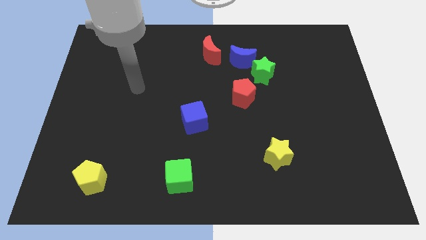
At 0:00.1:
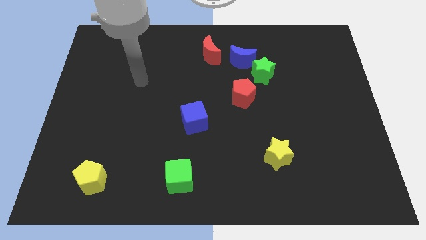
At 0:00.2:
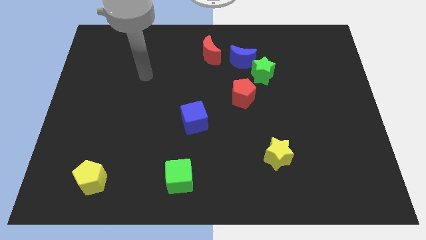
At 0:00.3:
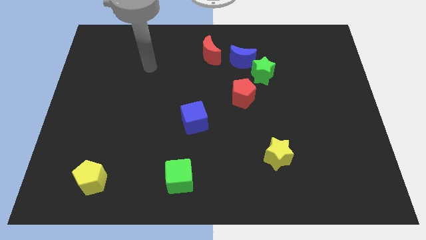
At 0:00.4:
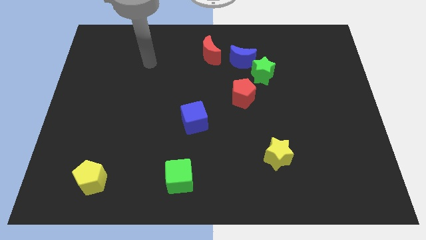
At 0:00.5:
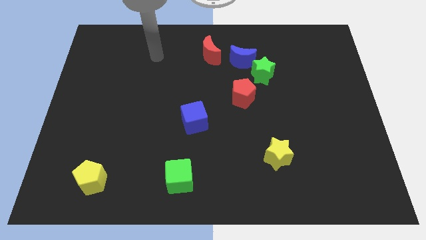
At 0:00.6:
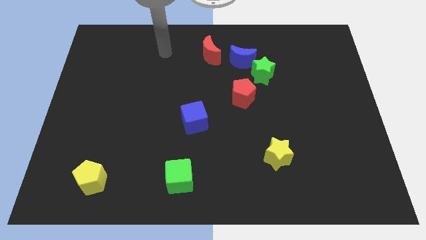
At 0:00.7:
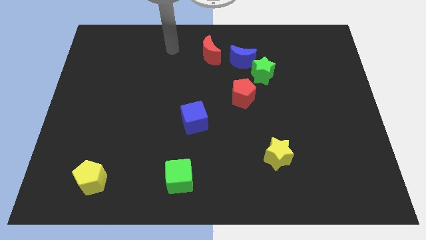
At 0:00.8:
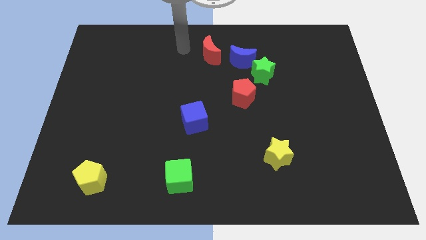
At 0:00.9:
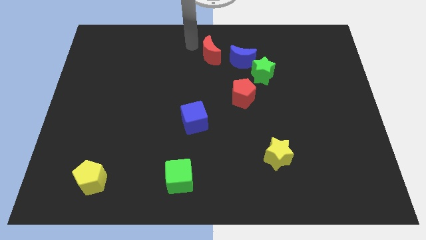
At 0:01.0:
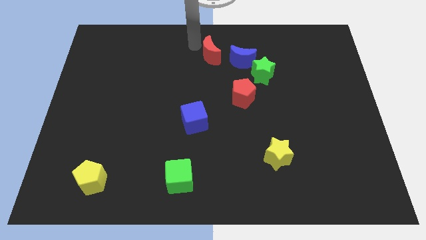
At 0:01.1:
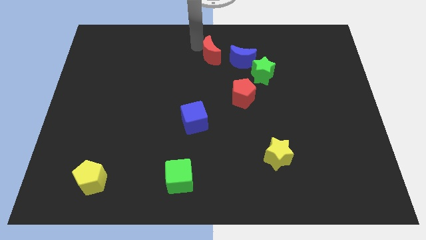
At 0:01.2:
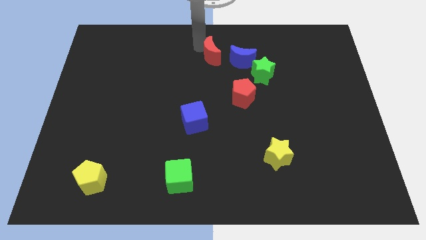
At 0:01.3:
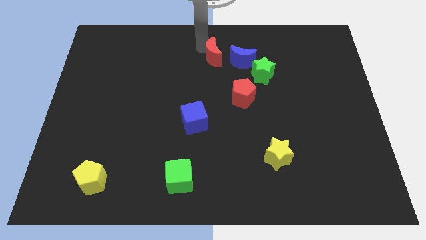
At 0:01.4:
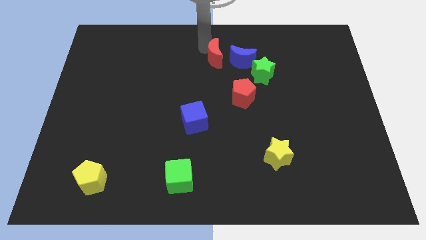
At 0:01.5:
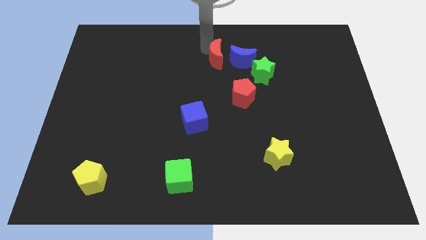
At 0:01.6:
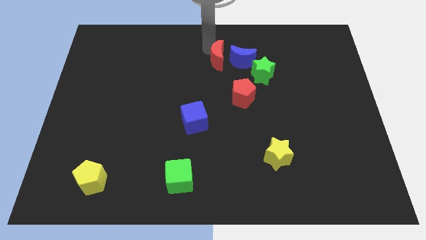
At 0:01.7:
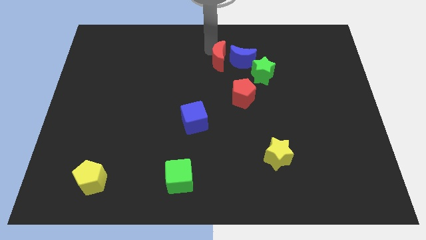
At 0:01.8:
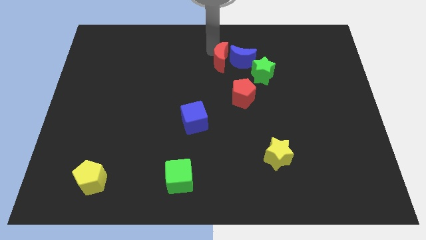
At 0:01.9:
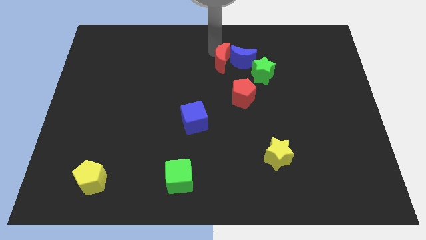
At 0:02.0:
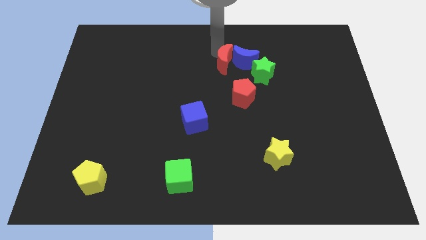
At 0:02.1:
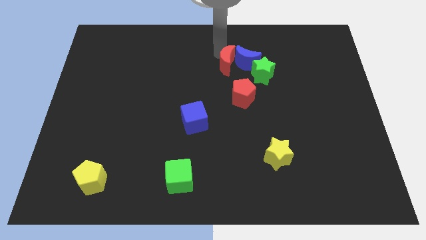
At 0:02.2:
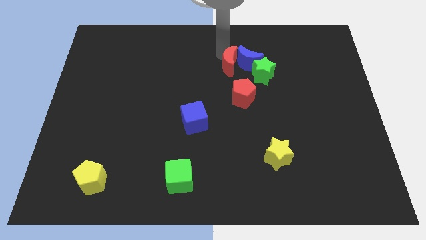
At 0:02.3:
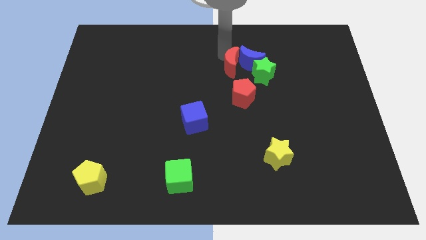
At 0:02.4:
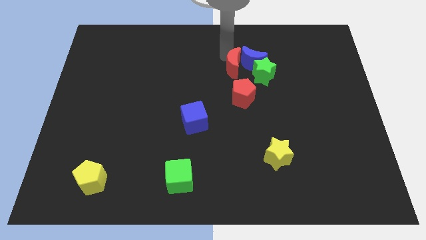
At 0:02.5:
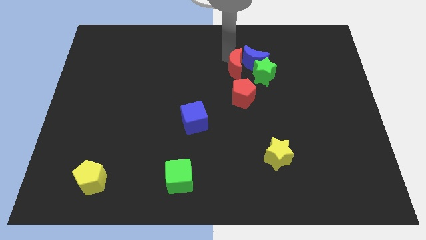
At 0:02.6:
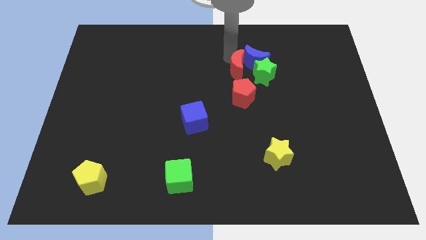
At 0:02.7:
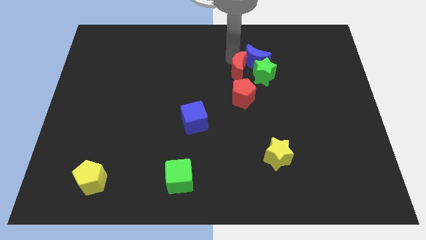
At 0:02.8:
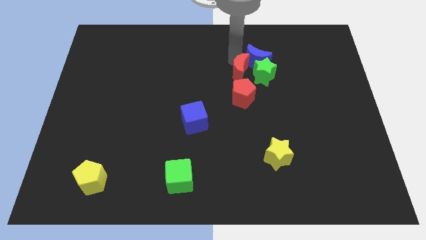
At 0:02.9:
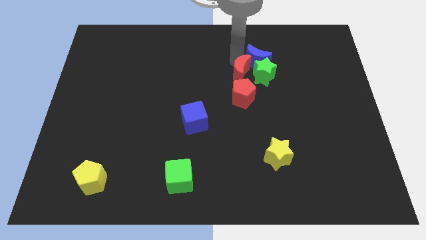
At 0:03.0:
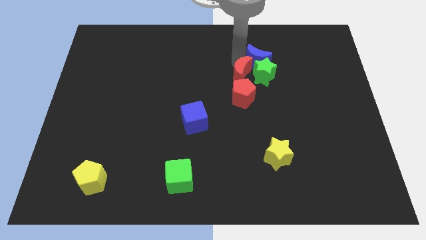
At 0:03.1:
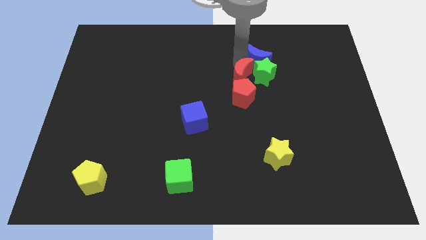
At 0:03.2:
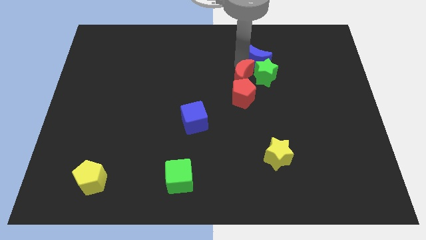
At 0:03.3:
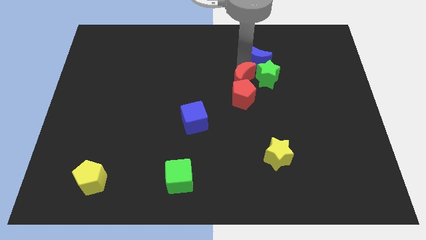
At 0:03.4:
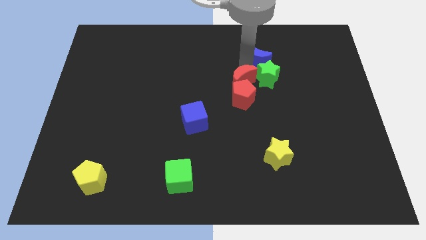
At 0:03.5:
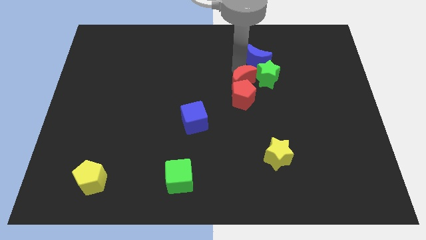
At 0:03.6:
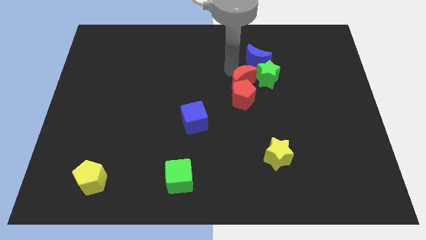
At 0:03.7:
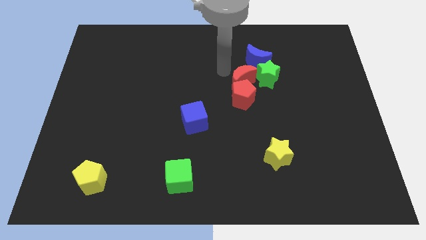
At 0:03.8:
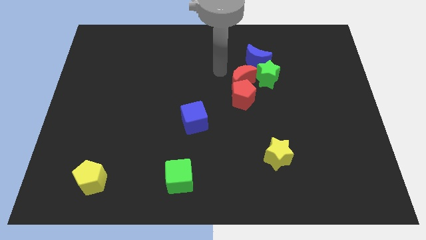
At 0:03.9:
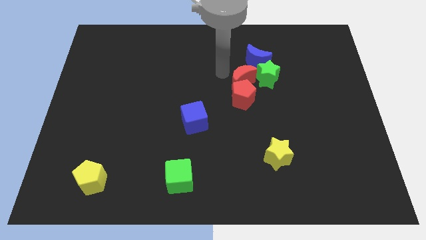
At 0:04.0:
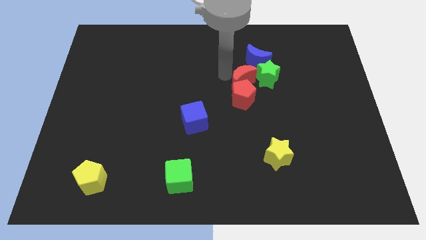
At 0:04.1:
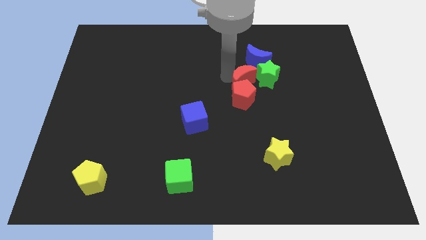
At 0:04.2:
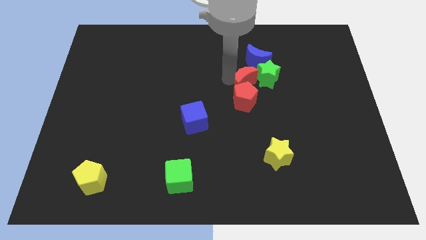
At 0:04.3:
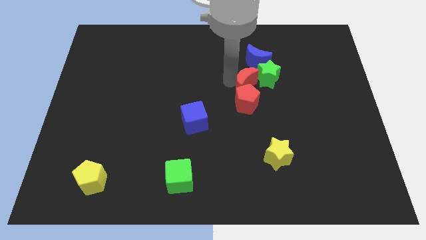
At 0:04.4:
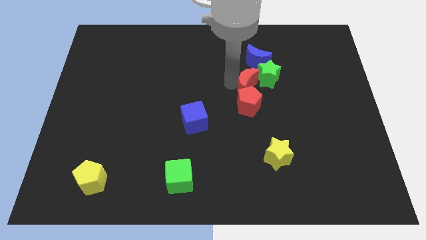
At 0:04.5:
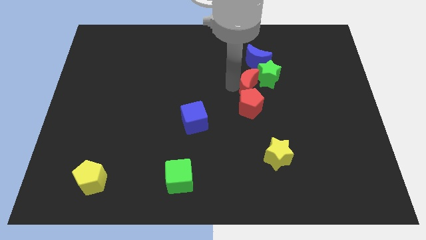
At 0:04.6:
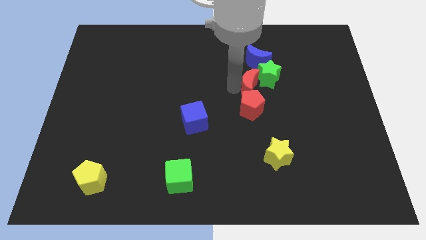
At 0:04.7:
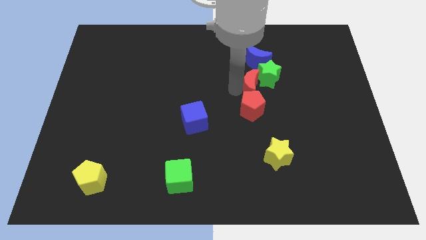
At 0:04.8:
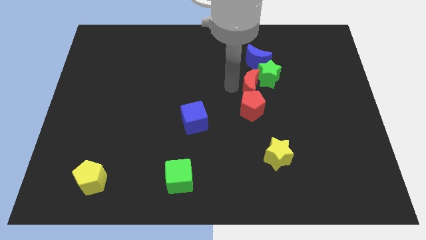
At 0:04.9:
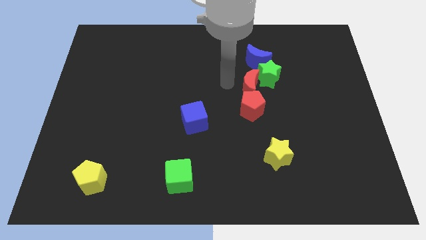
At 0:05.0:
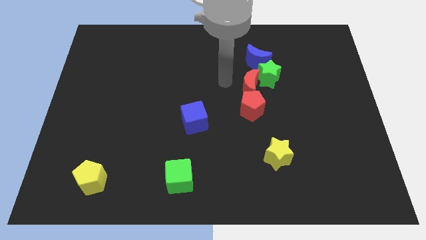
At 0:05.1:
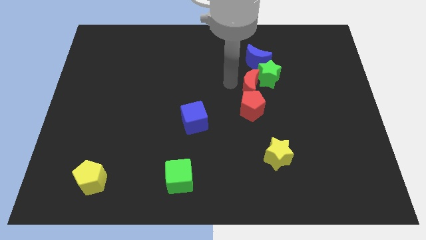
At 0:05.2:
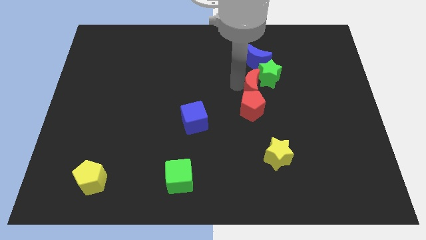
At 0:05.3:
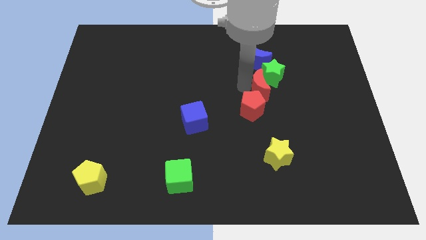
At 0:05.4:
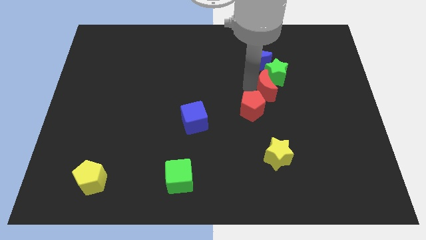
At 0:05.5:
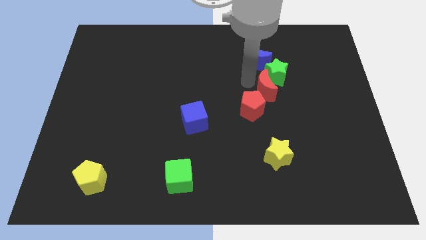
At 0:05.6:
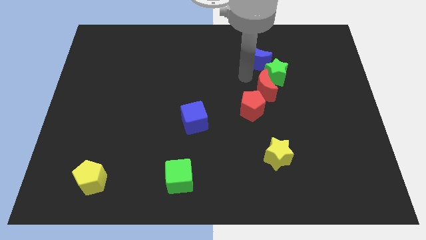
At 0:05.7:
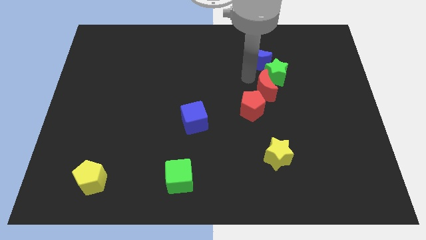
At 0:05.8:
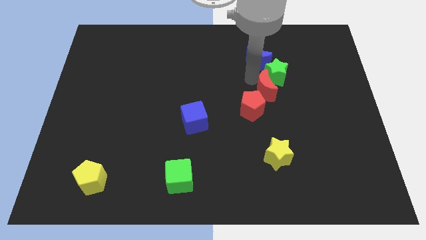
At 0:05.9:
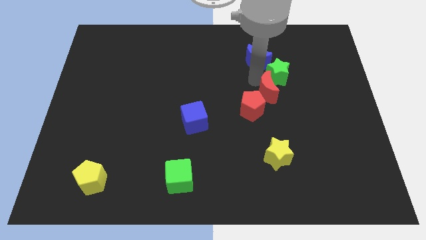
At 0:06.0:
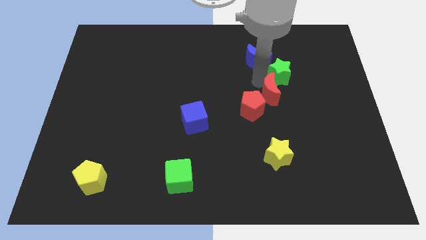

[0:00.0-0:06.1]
push the red moon downwards and right
